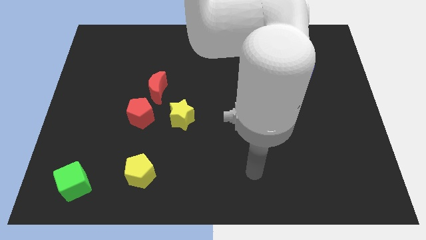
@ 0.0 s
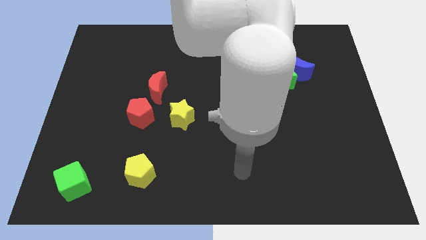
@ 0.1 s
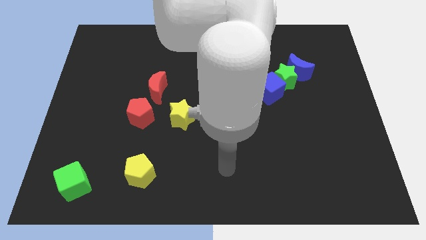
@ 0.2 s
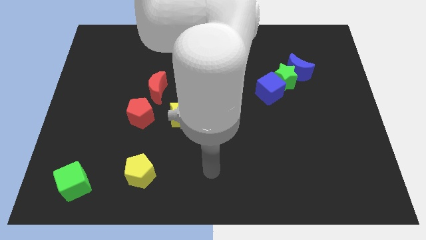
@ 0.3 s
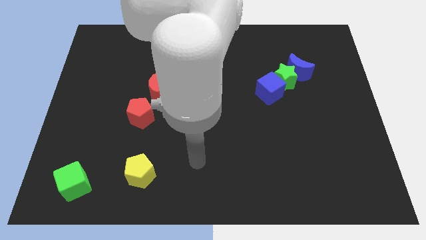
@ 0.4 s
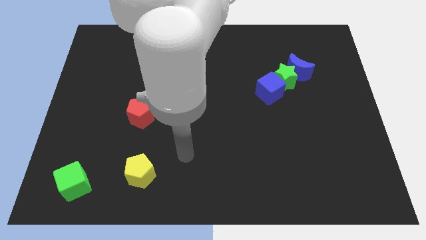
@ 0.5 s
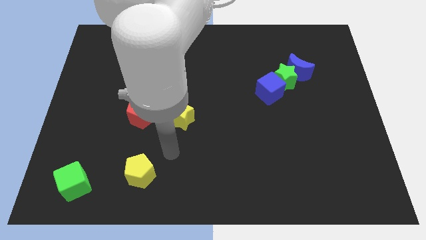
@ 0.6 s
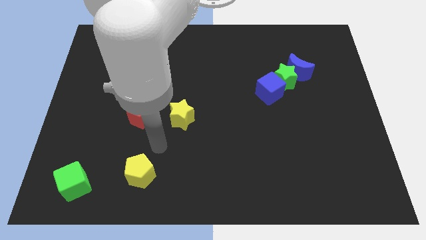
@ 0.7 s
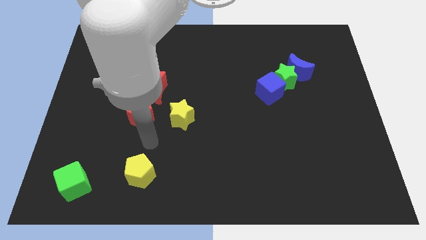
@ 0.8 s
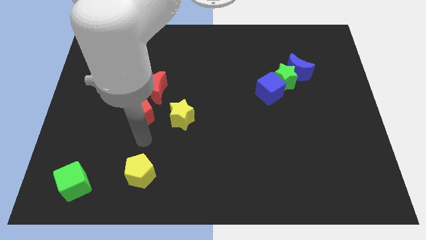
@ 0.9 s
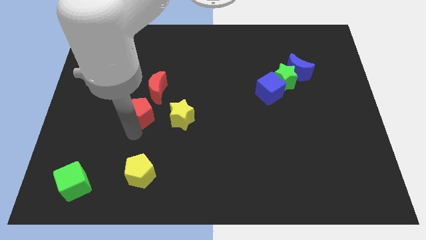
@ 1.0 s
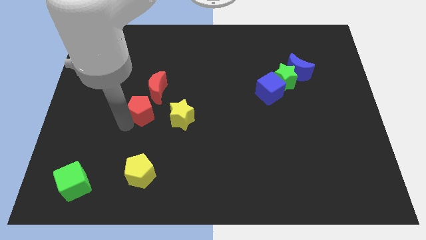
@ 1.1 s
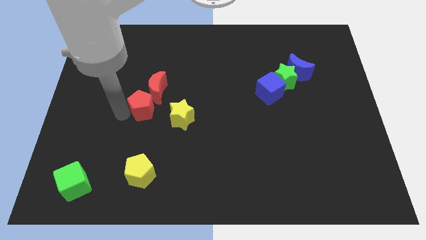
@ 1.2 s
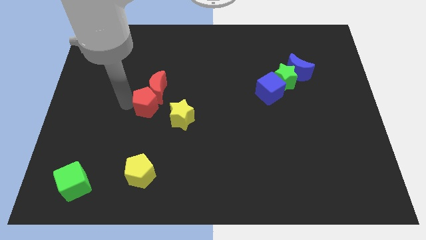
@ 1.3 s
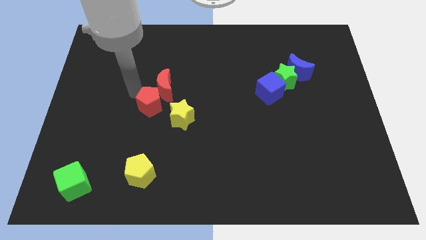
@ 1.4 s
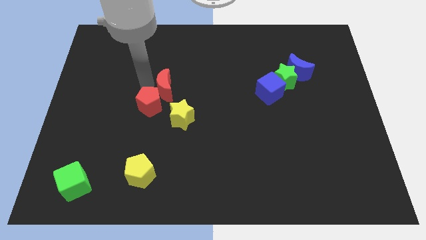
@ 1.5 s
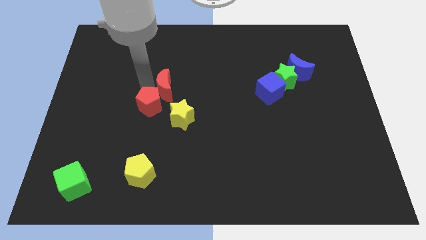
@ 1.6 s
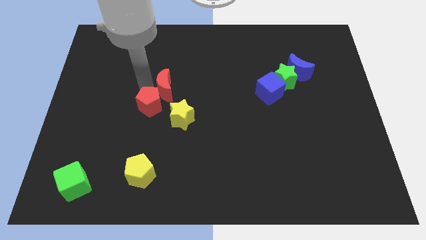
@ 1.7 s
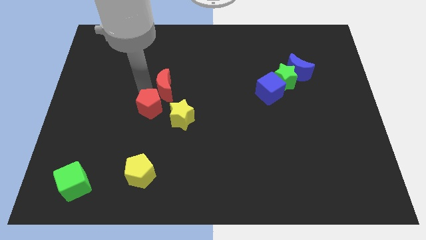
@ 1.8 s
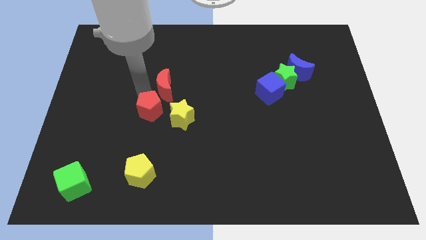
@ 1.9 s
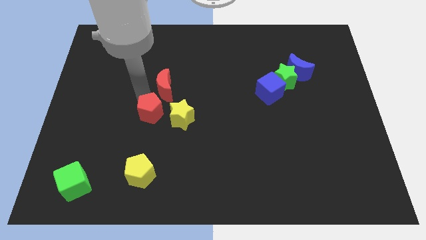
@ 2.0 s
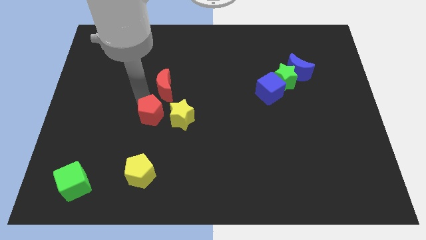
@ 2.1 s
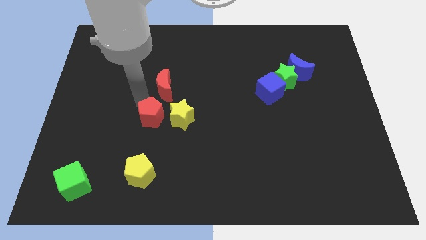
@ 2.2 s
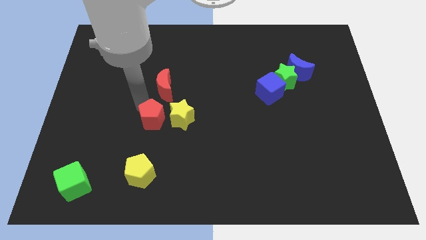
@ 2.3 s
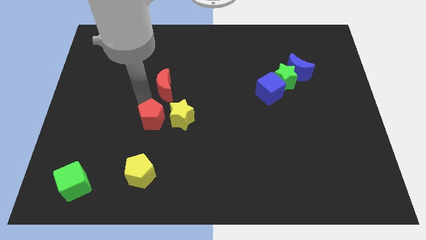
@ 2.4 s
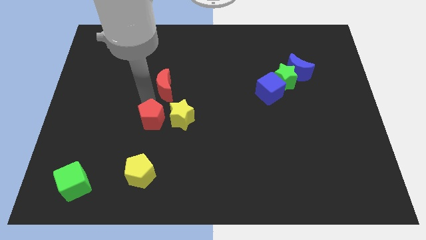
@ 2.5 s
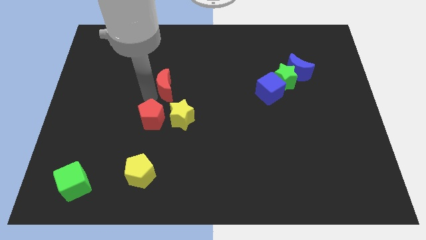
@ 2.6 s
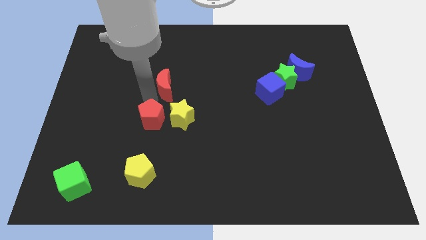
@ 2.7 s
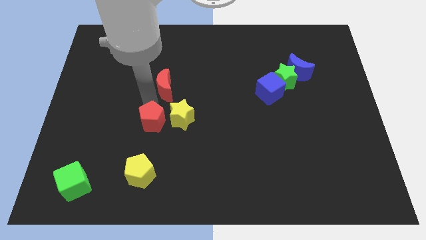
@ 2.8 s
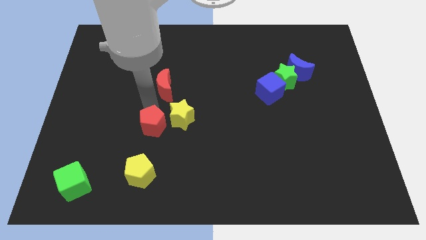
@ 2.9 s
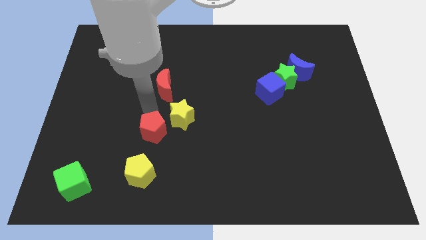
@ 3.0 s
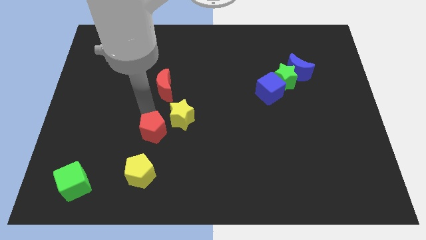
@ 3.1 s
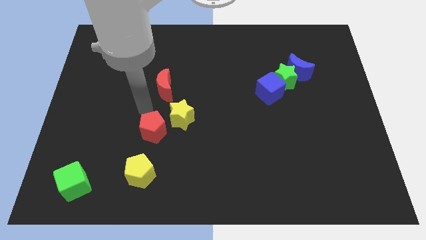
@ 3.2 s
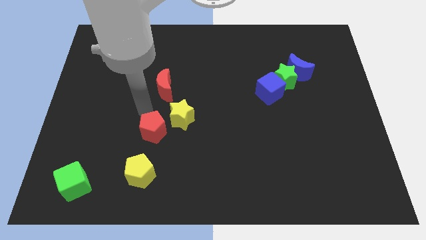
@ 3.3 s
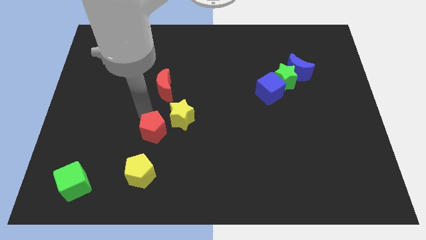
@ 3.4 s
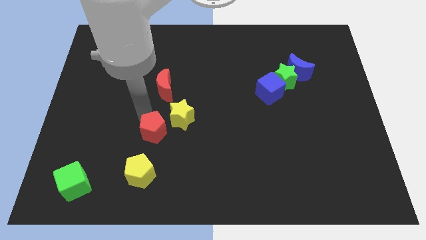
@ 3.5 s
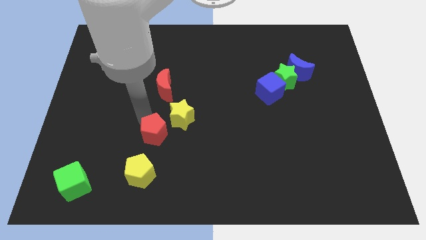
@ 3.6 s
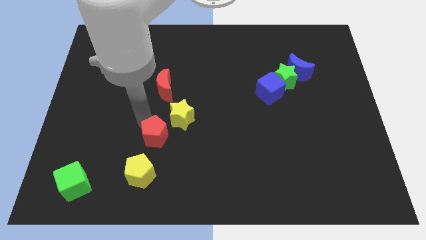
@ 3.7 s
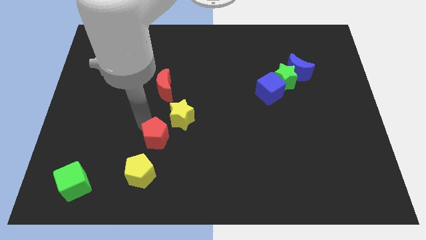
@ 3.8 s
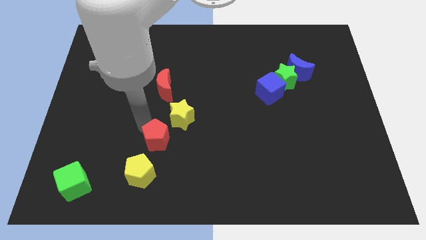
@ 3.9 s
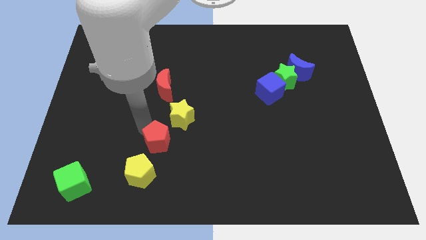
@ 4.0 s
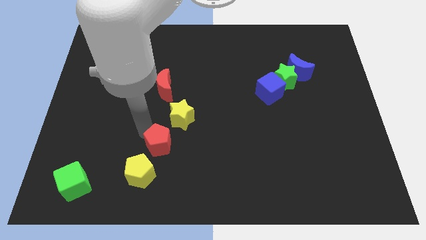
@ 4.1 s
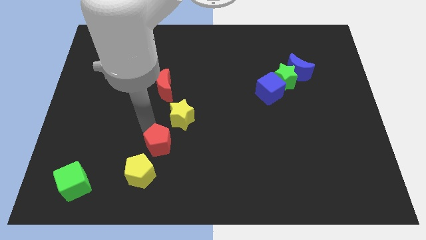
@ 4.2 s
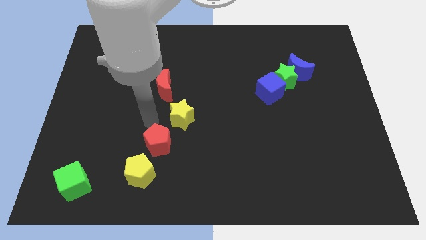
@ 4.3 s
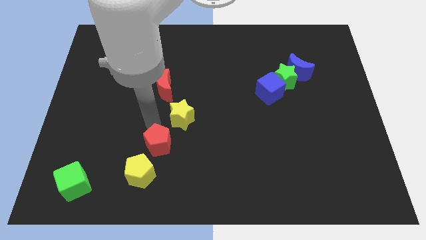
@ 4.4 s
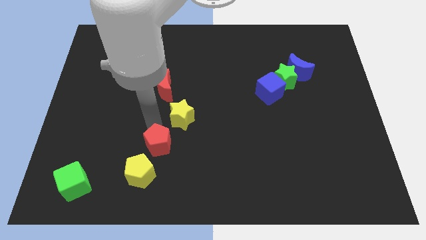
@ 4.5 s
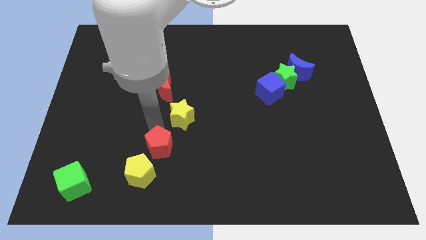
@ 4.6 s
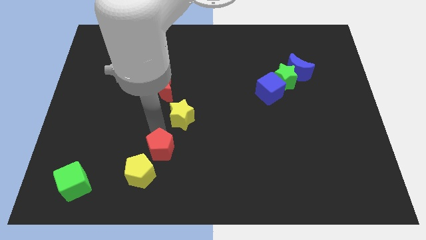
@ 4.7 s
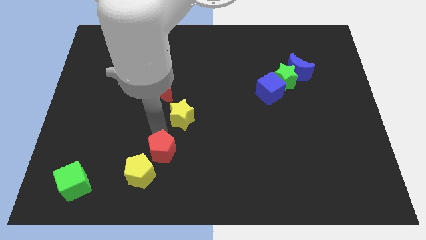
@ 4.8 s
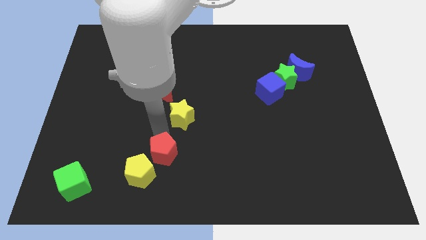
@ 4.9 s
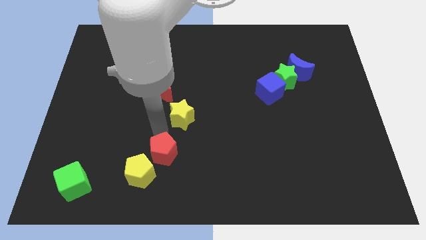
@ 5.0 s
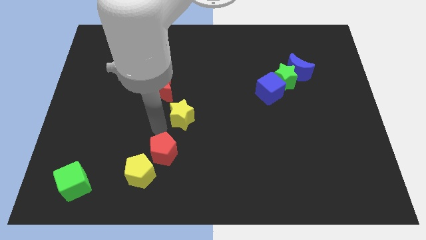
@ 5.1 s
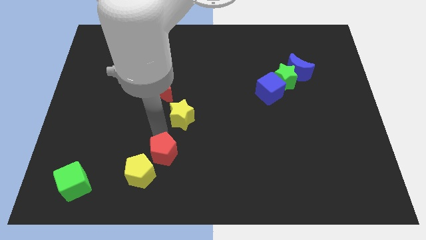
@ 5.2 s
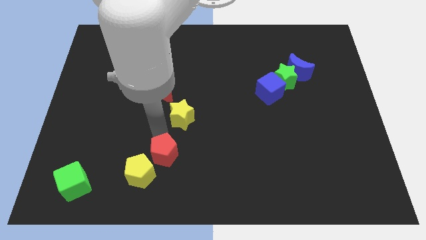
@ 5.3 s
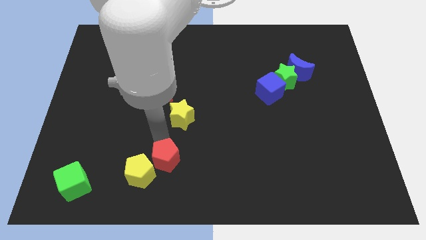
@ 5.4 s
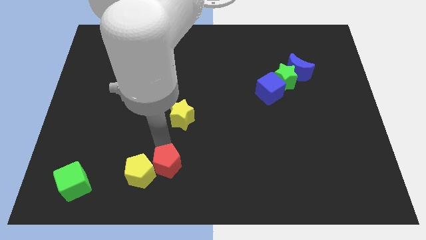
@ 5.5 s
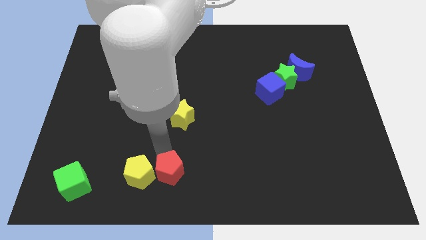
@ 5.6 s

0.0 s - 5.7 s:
push the red pentagon to the bottom
